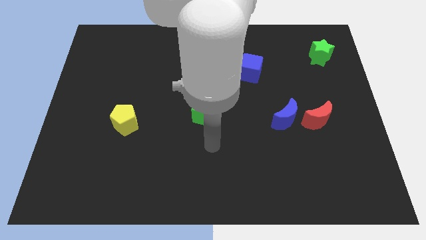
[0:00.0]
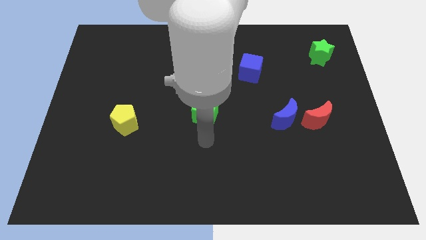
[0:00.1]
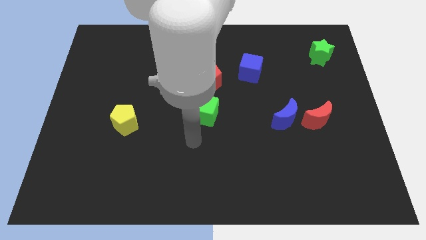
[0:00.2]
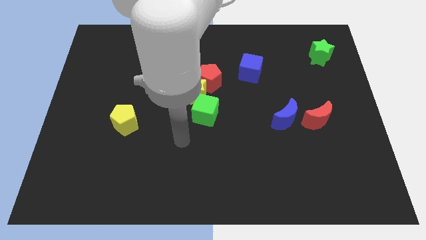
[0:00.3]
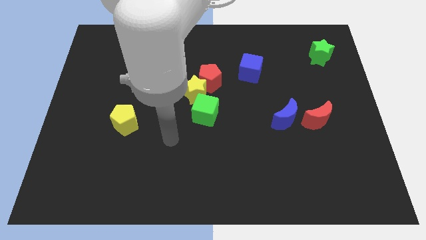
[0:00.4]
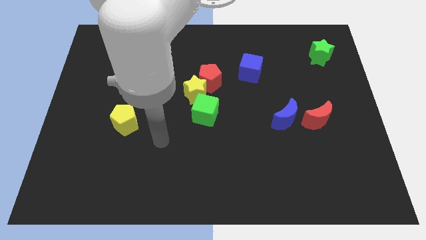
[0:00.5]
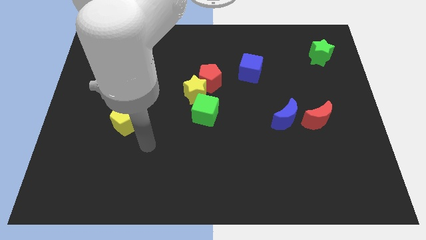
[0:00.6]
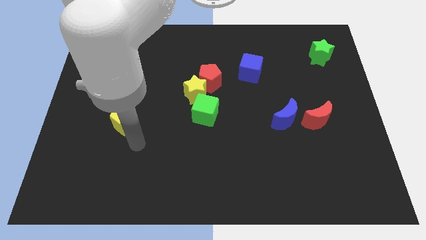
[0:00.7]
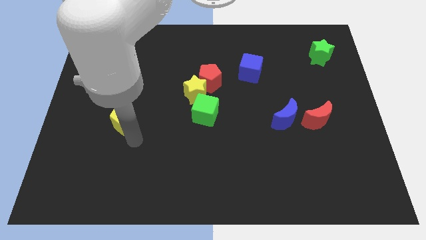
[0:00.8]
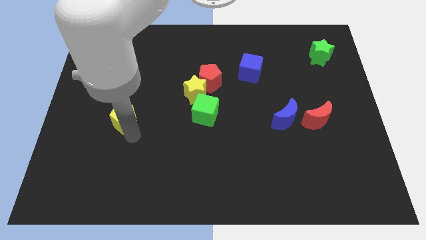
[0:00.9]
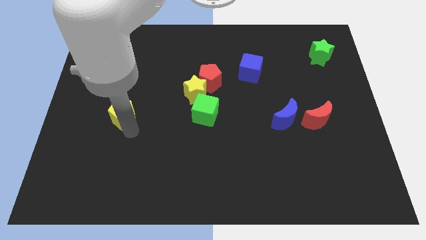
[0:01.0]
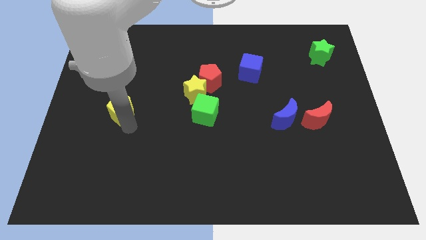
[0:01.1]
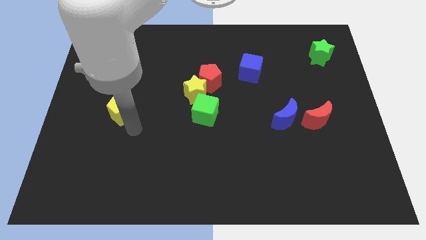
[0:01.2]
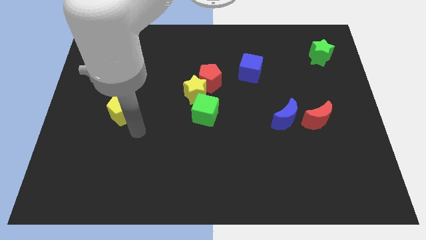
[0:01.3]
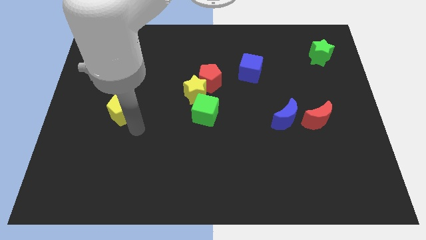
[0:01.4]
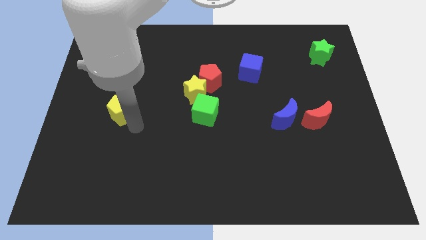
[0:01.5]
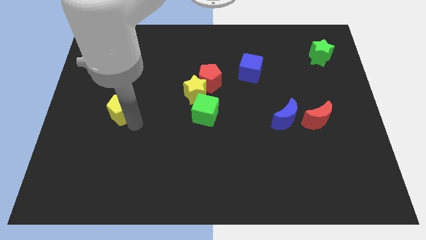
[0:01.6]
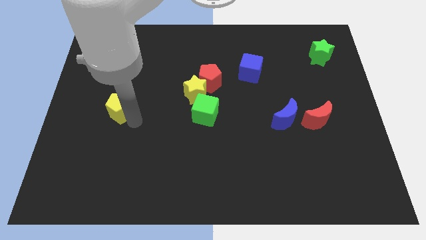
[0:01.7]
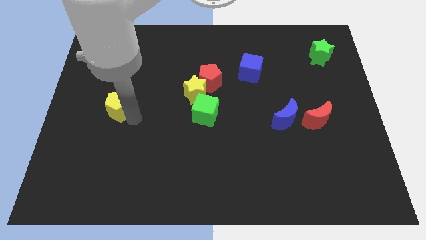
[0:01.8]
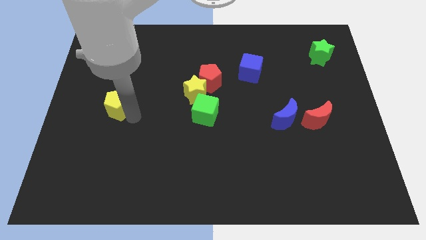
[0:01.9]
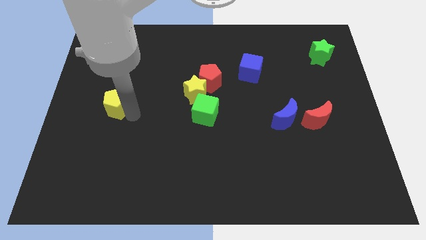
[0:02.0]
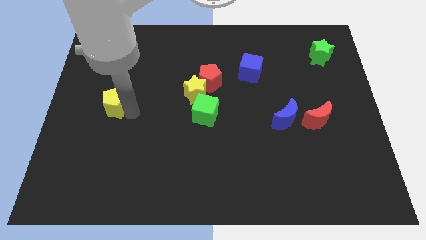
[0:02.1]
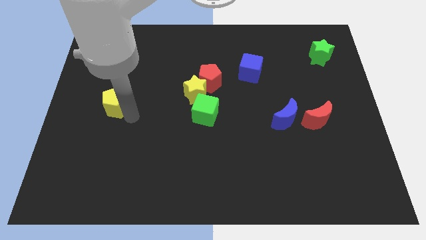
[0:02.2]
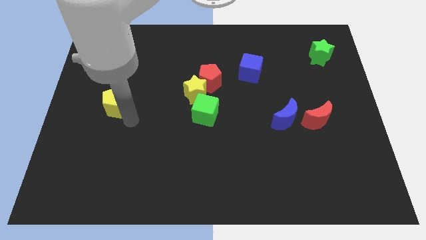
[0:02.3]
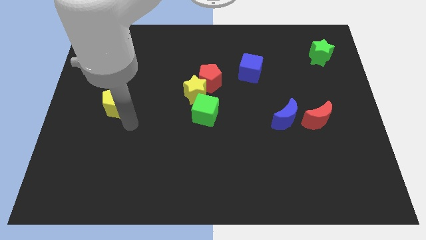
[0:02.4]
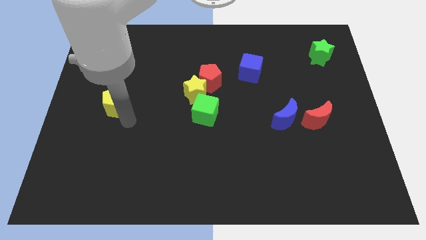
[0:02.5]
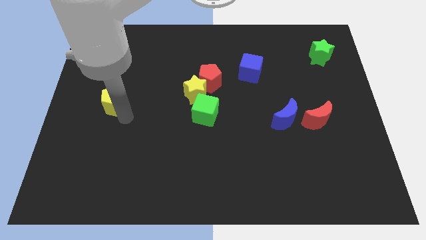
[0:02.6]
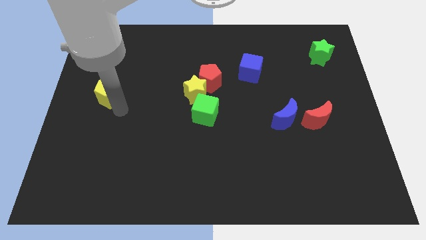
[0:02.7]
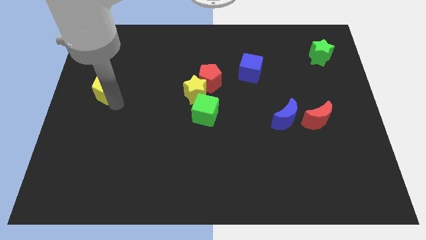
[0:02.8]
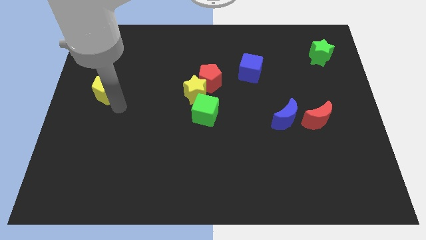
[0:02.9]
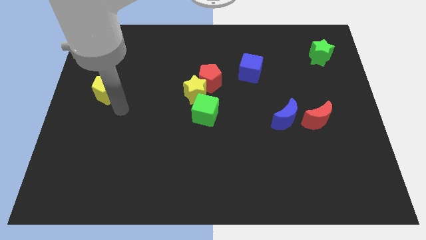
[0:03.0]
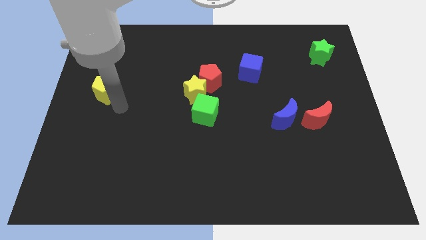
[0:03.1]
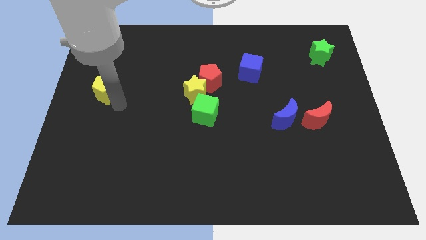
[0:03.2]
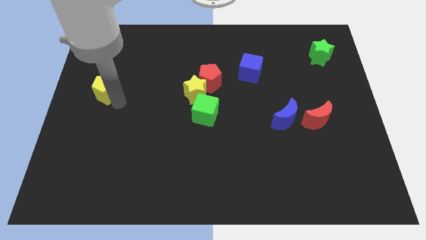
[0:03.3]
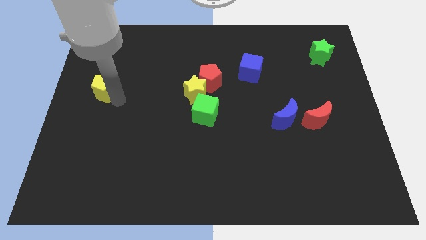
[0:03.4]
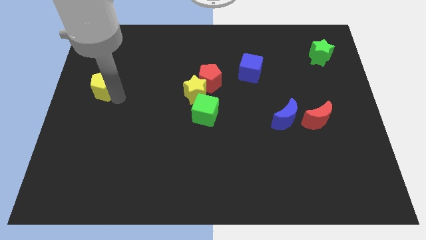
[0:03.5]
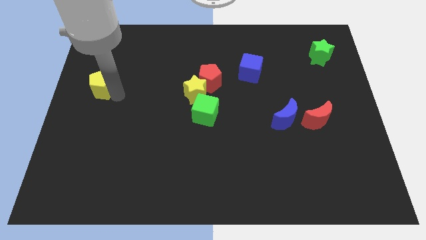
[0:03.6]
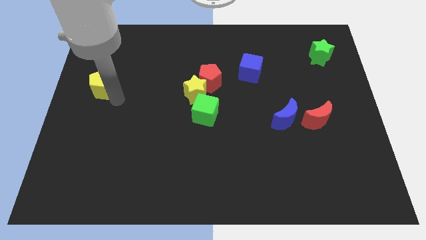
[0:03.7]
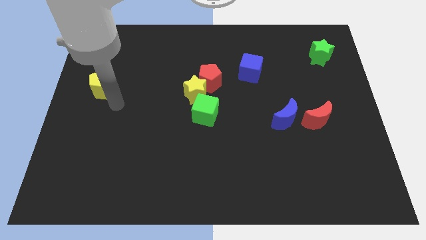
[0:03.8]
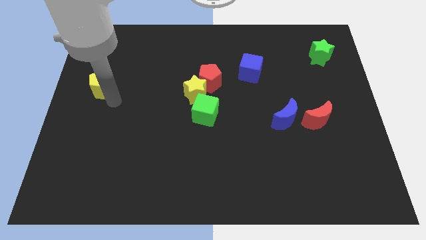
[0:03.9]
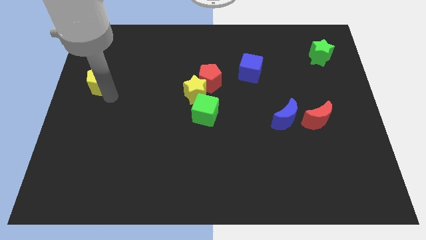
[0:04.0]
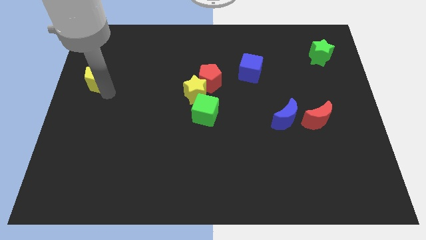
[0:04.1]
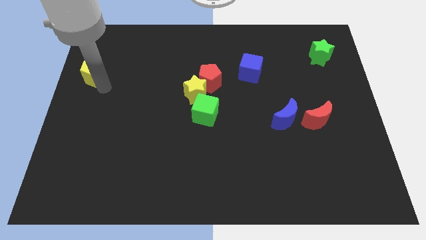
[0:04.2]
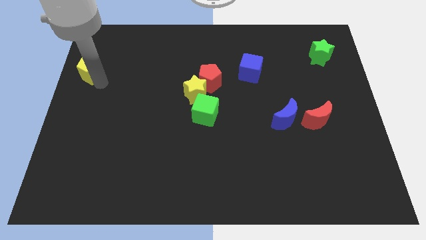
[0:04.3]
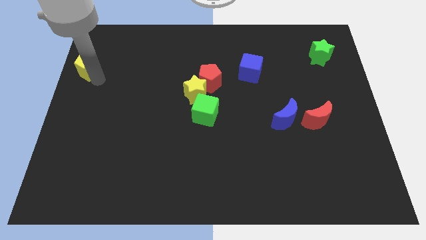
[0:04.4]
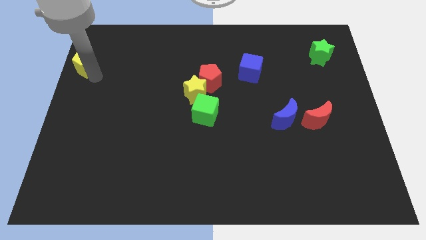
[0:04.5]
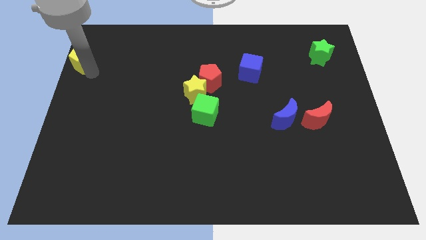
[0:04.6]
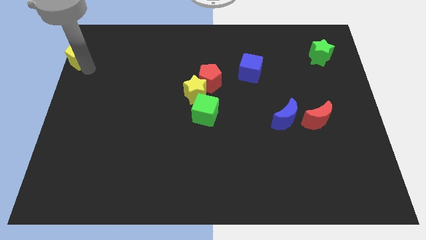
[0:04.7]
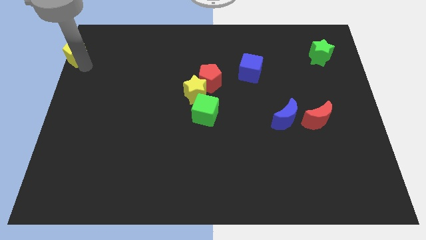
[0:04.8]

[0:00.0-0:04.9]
move the yellow pentagon to the upper left corner

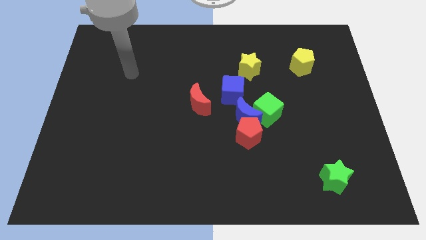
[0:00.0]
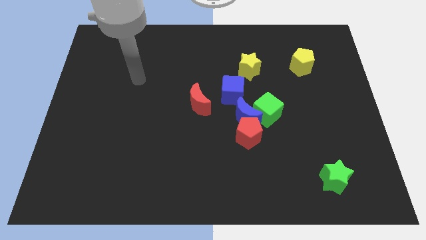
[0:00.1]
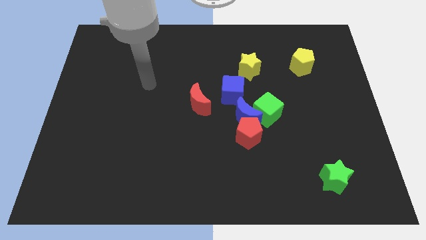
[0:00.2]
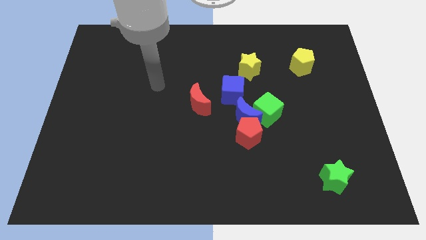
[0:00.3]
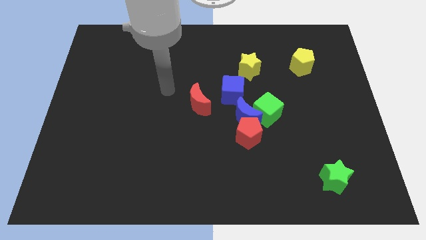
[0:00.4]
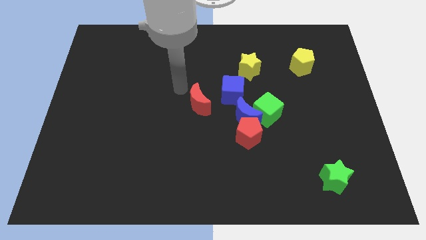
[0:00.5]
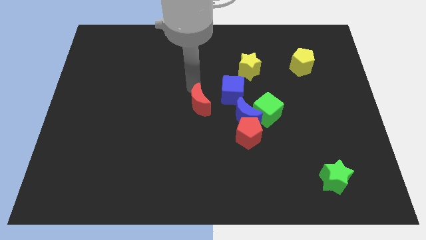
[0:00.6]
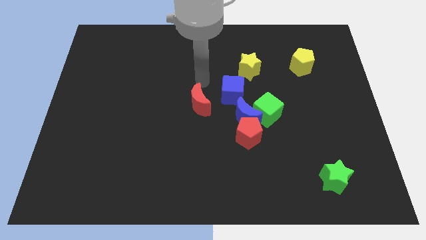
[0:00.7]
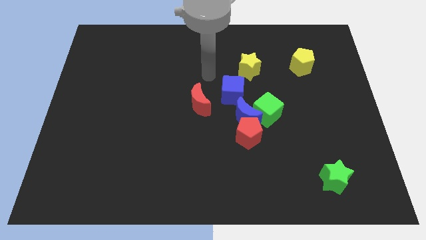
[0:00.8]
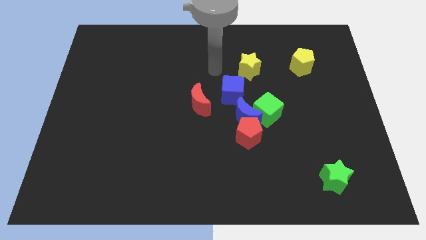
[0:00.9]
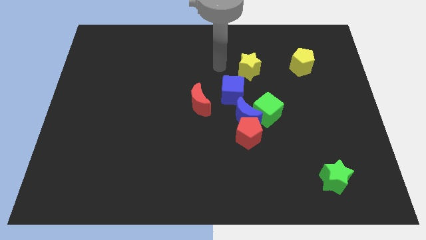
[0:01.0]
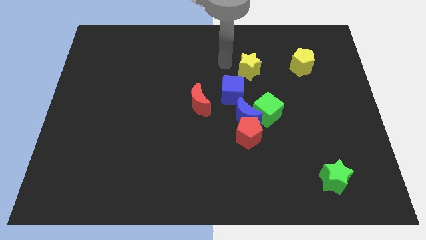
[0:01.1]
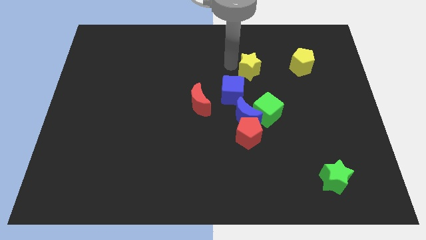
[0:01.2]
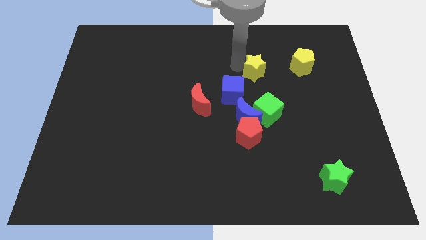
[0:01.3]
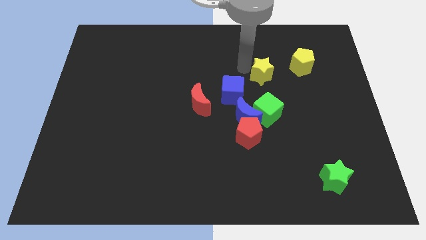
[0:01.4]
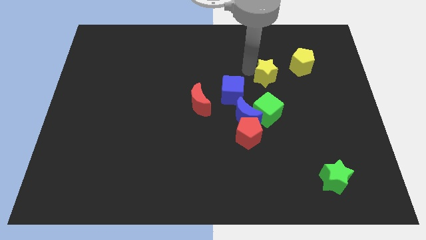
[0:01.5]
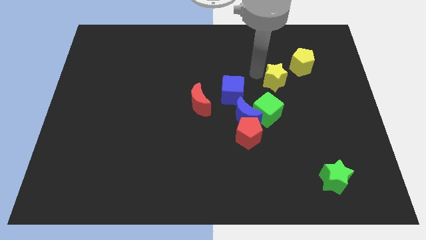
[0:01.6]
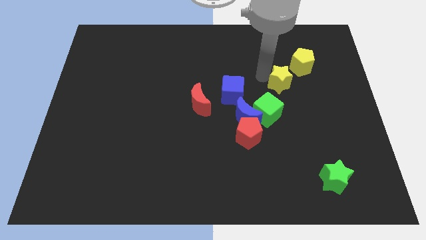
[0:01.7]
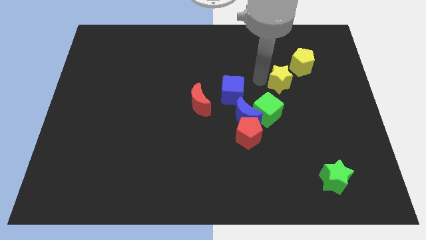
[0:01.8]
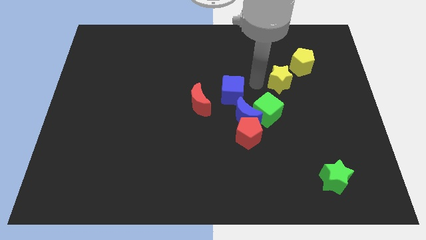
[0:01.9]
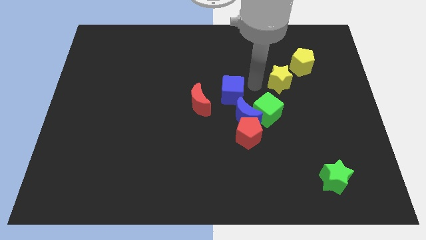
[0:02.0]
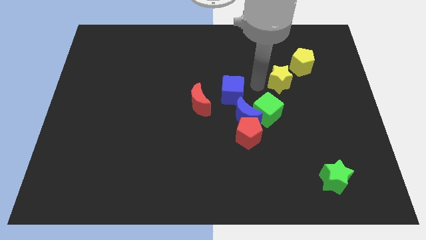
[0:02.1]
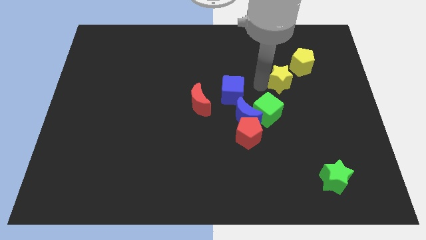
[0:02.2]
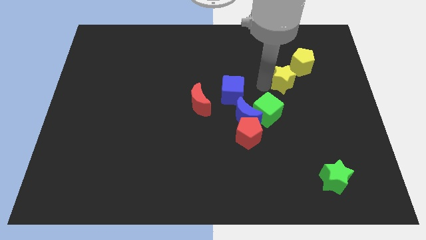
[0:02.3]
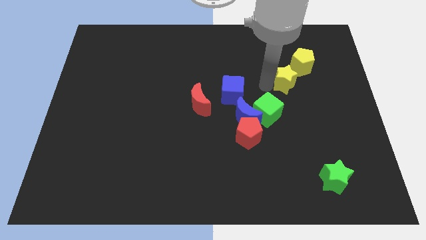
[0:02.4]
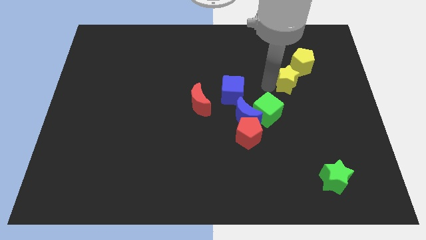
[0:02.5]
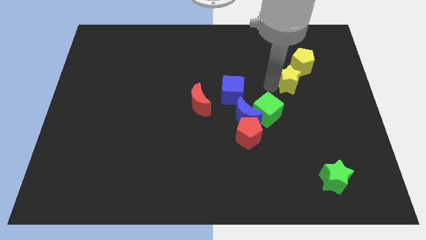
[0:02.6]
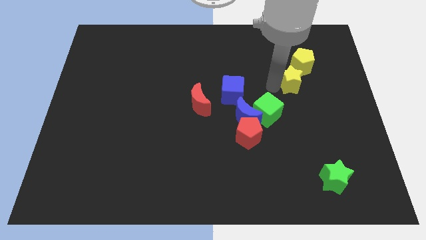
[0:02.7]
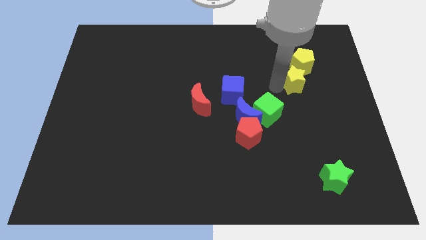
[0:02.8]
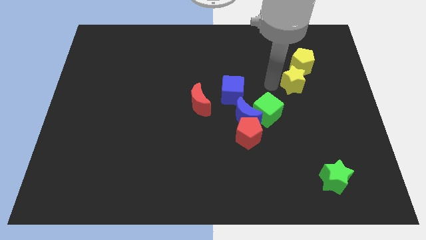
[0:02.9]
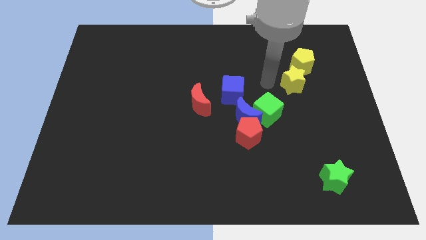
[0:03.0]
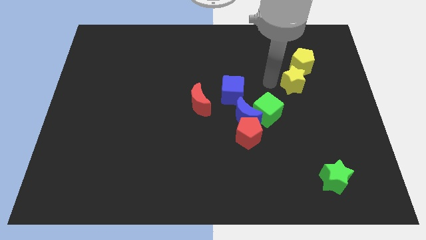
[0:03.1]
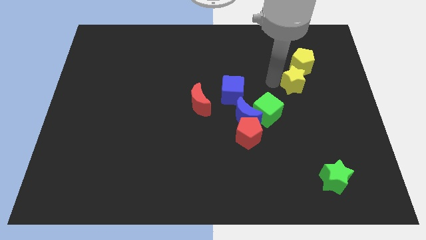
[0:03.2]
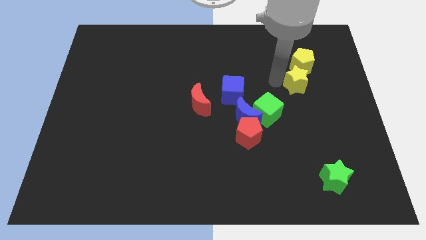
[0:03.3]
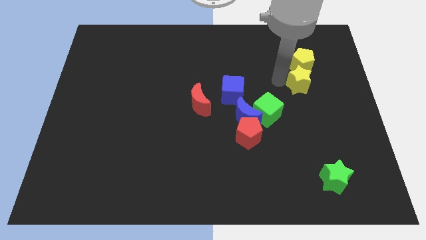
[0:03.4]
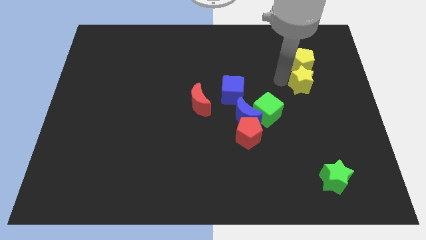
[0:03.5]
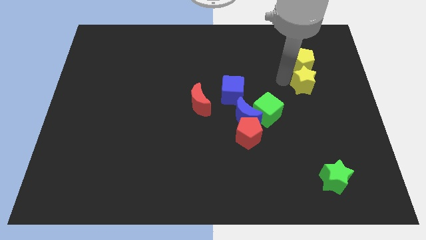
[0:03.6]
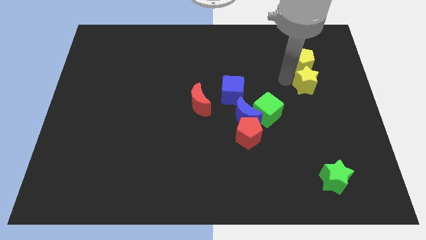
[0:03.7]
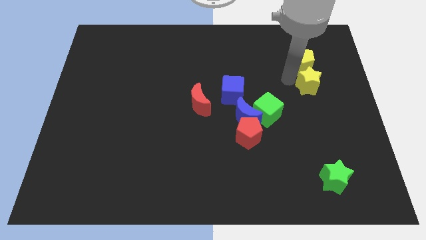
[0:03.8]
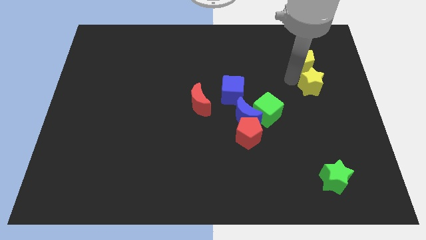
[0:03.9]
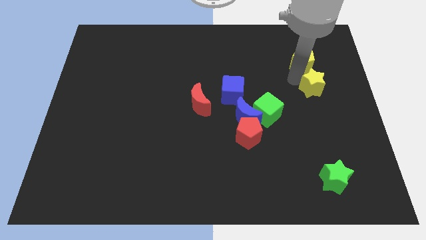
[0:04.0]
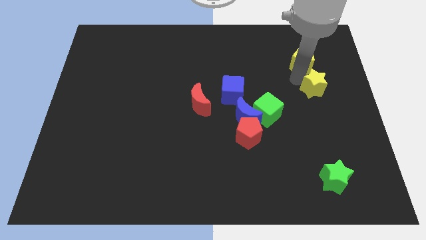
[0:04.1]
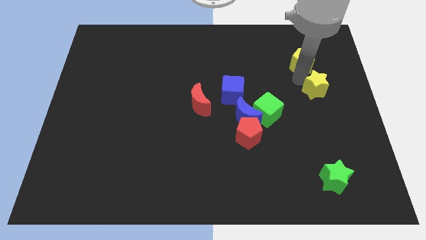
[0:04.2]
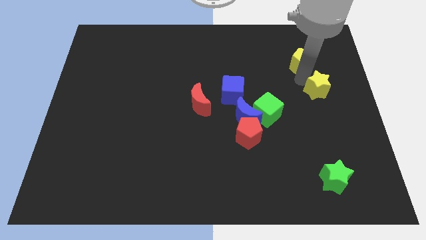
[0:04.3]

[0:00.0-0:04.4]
put the yellow star to the right side of the board
